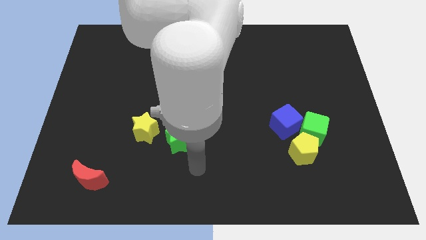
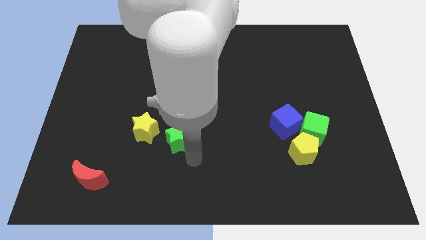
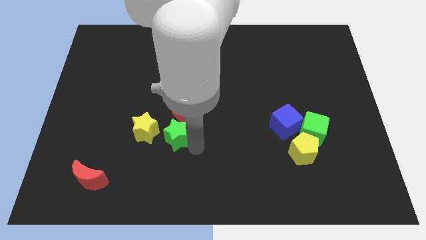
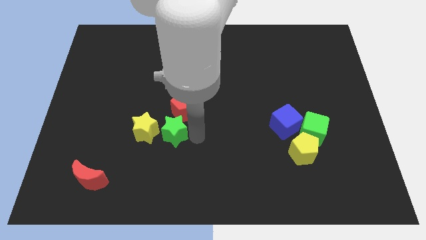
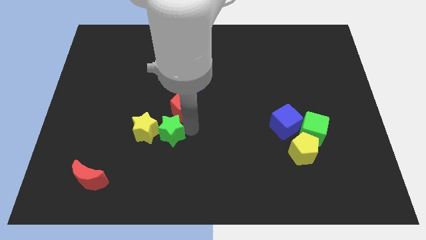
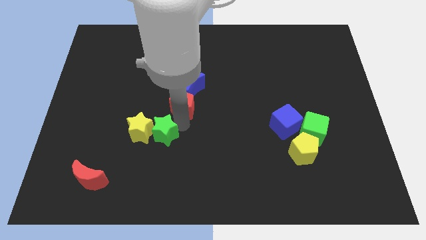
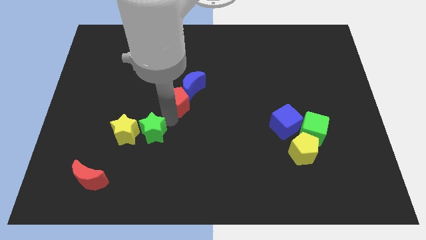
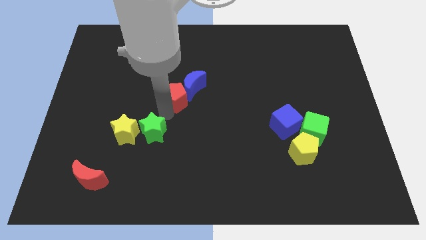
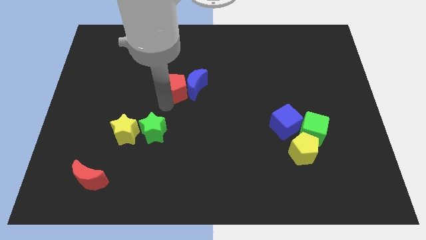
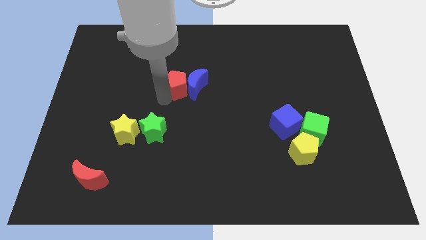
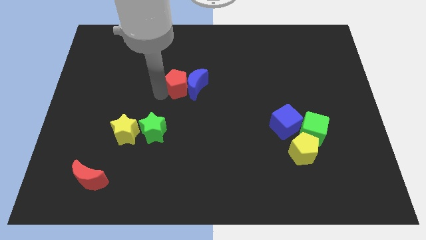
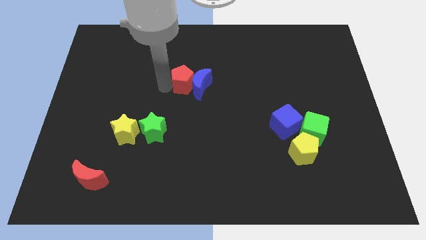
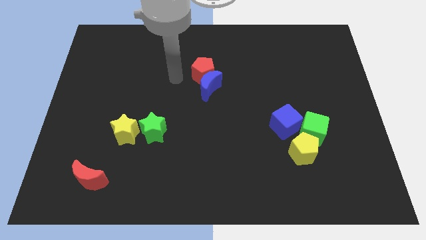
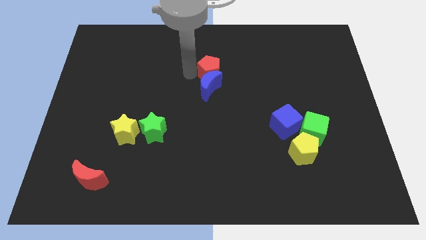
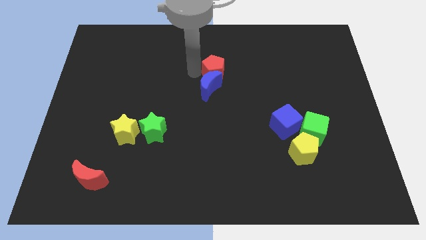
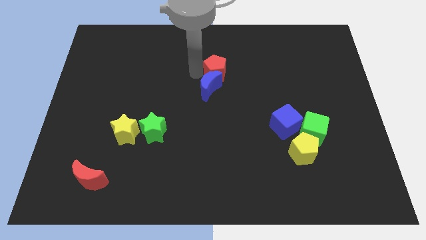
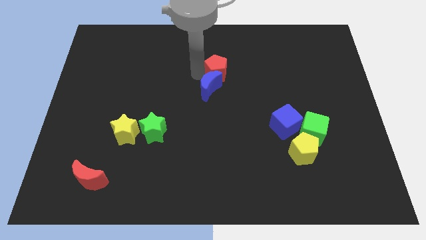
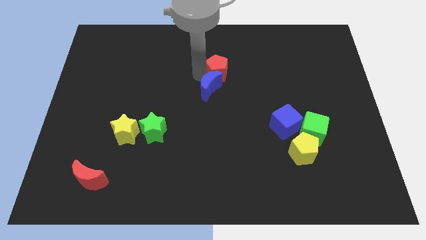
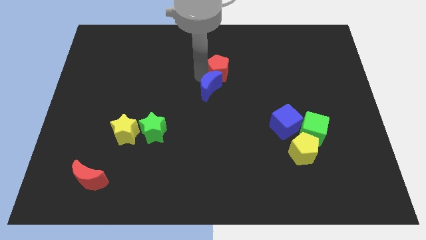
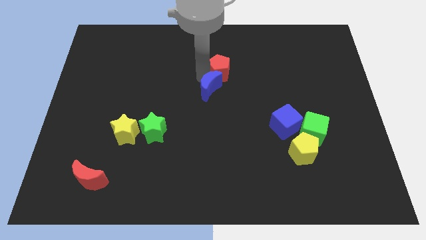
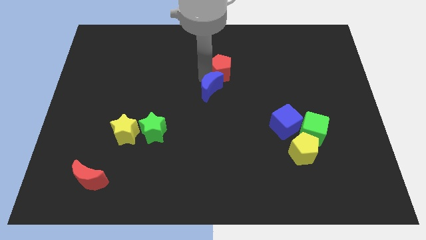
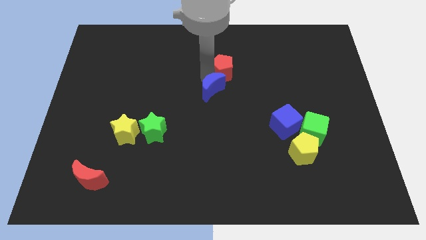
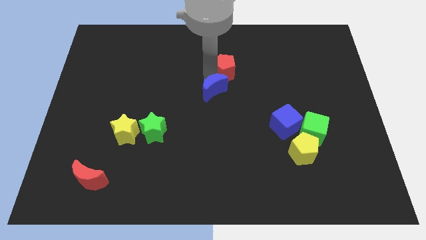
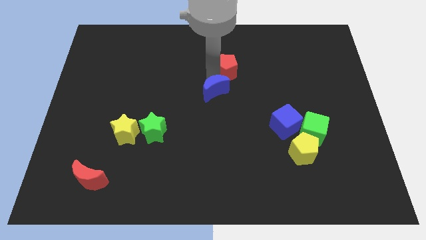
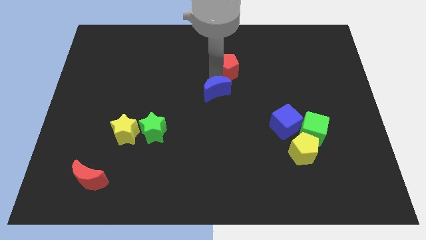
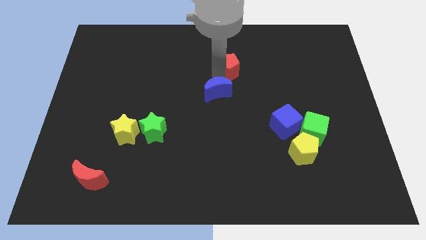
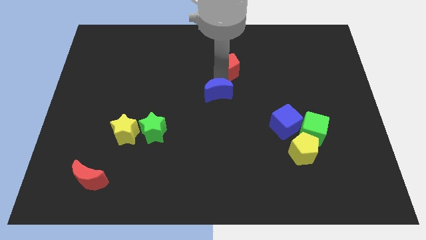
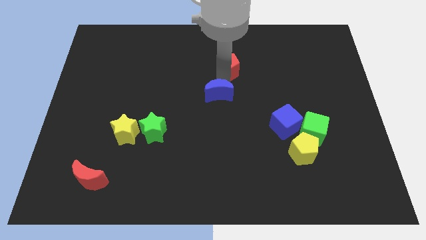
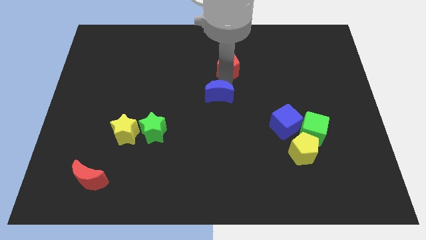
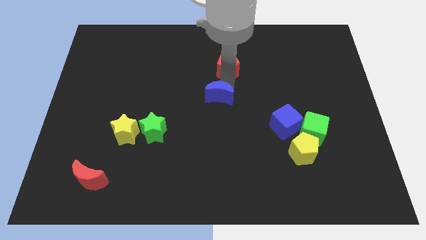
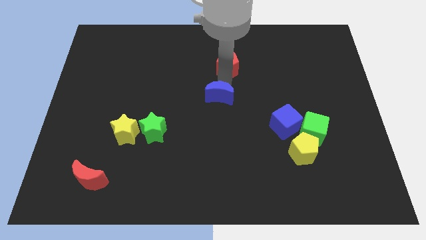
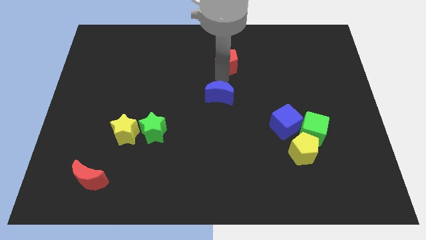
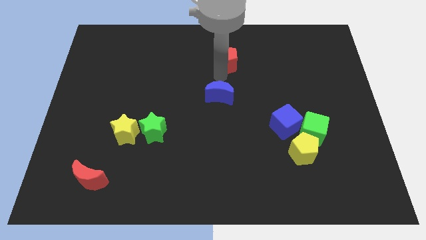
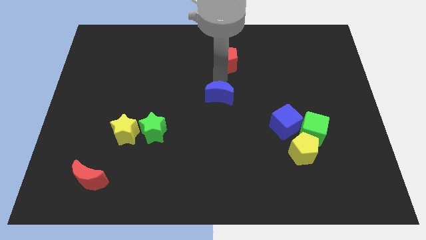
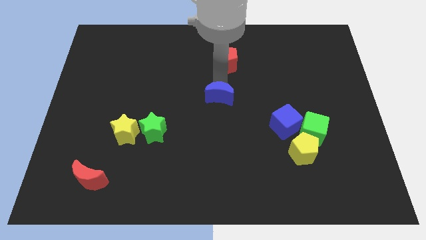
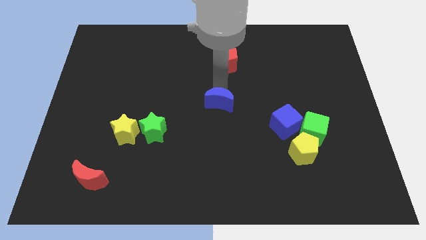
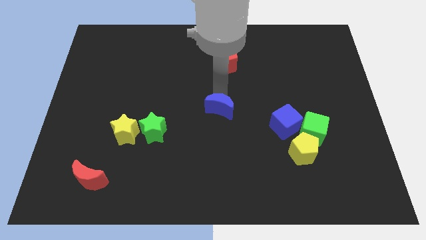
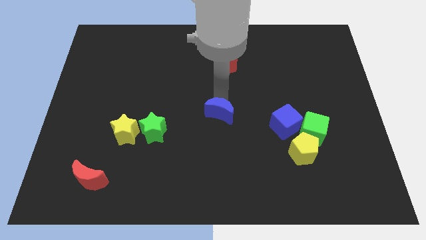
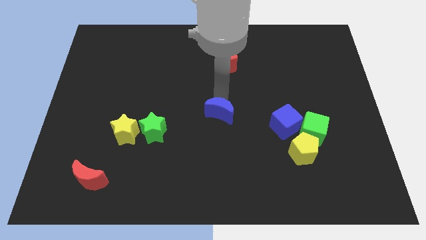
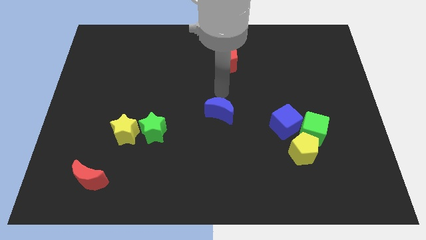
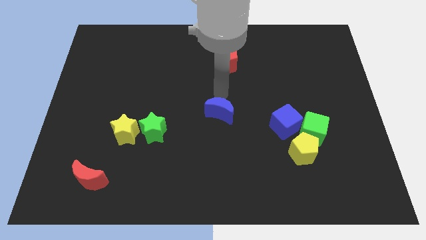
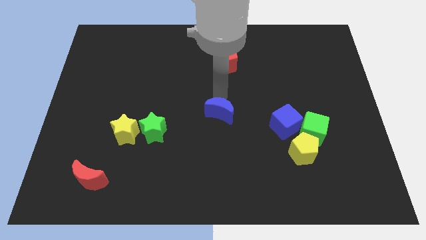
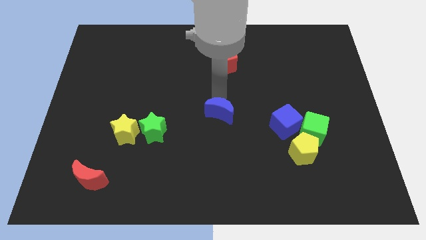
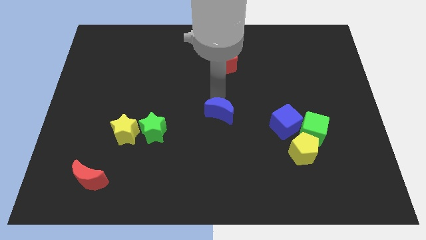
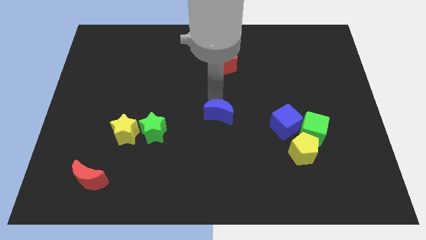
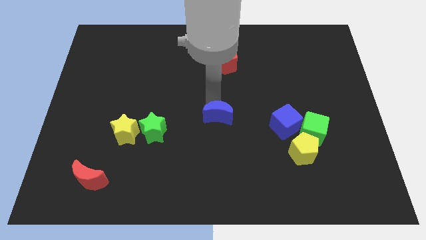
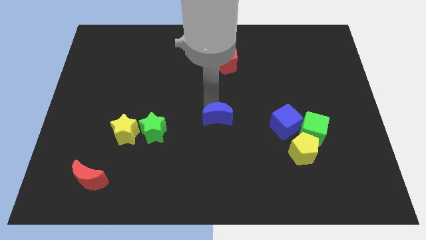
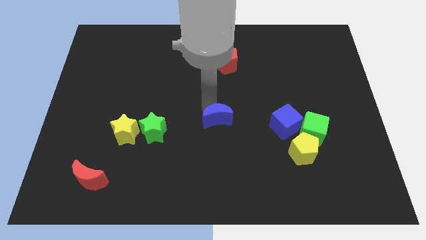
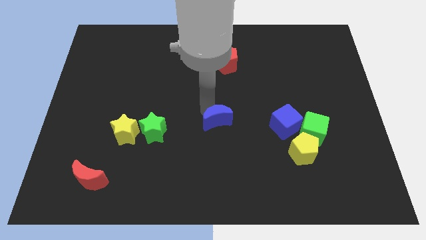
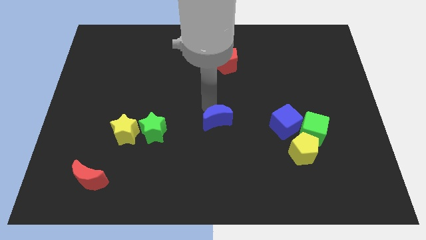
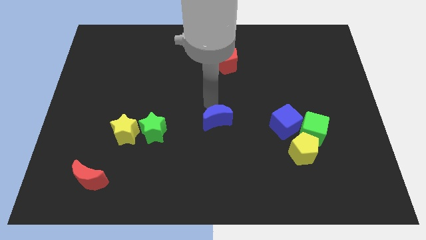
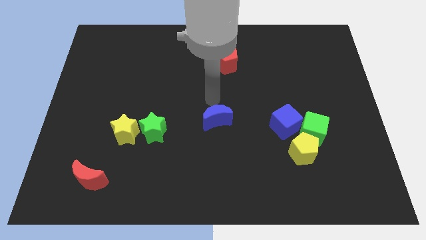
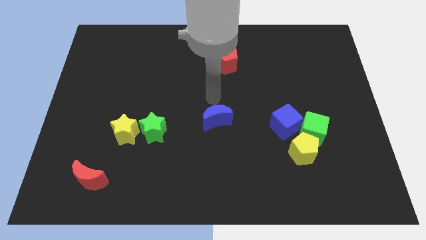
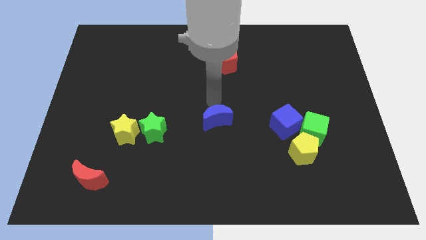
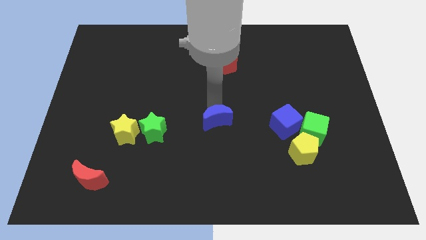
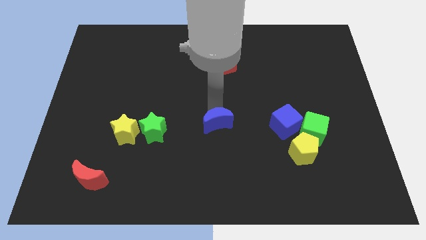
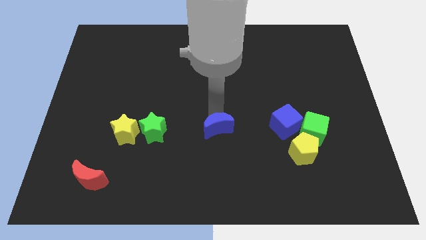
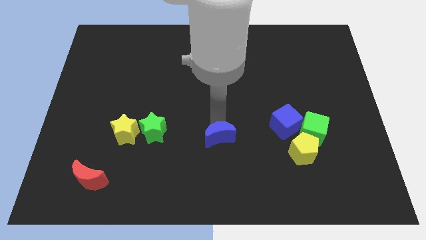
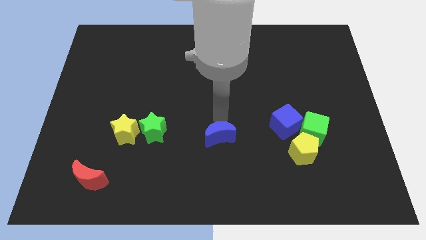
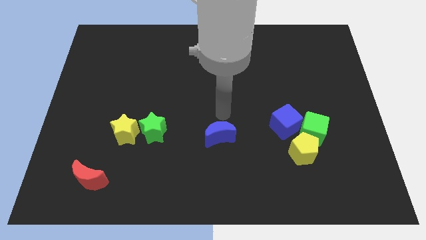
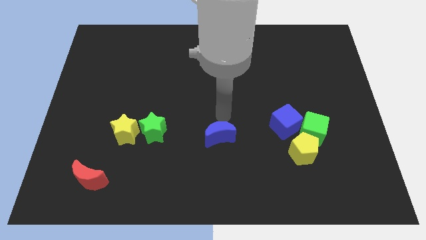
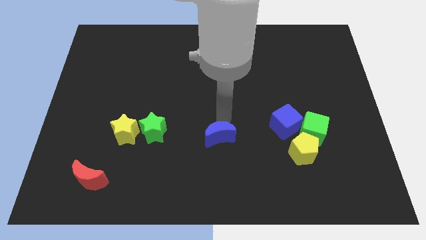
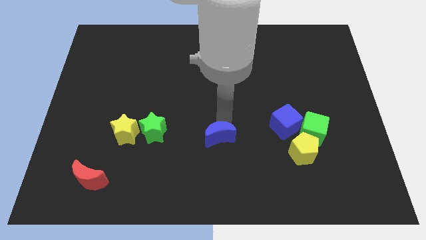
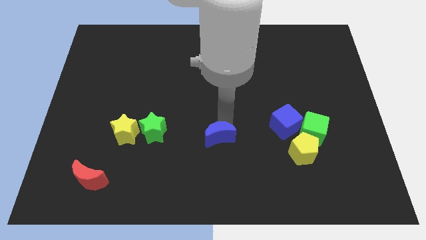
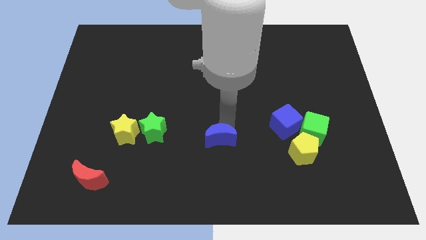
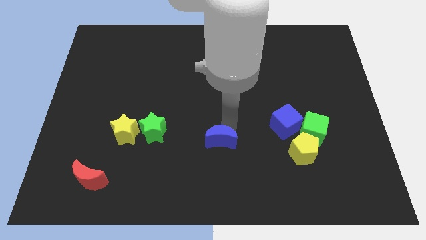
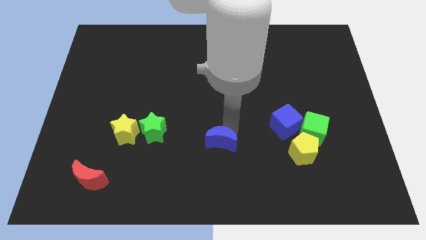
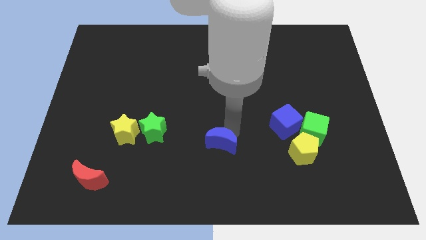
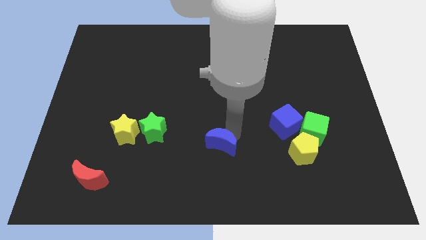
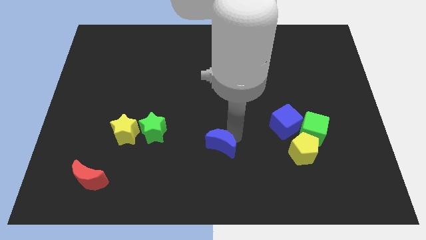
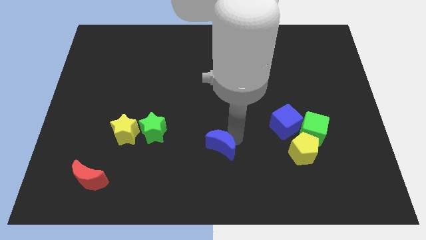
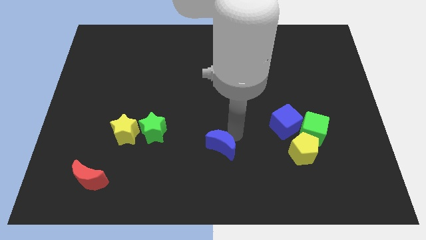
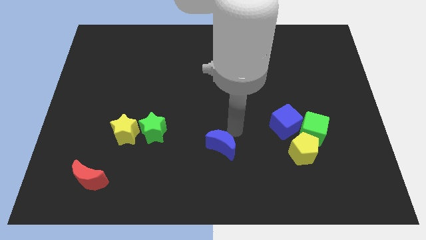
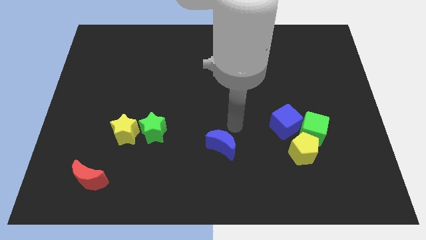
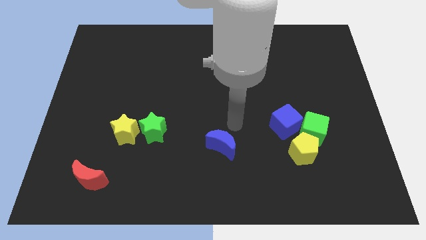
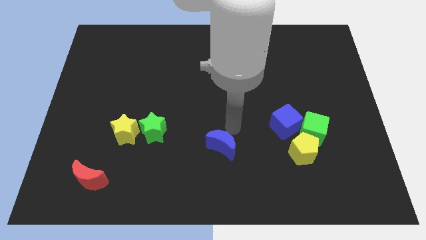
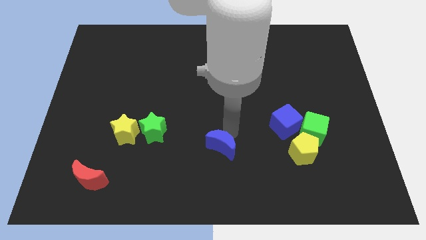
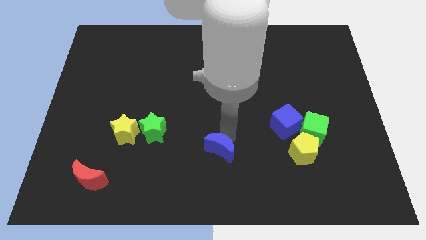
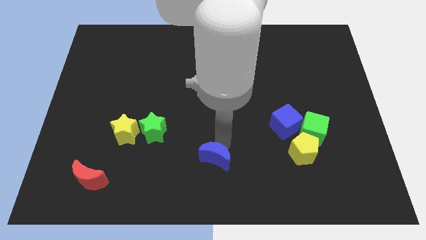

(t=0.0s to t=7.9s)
push the blue moon to the bottom
